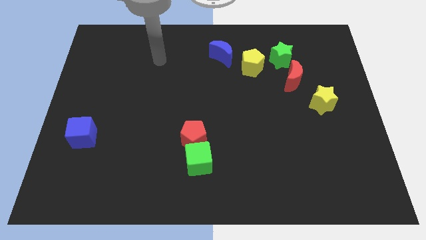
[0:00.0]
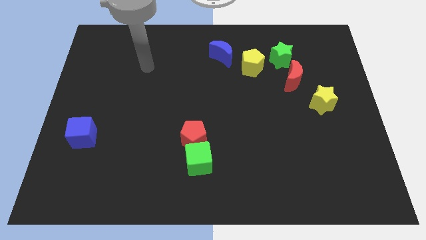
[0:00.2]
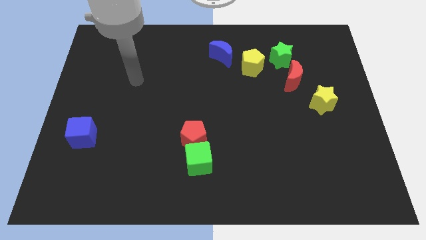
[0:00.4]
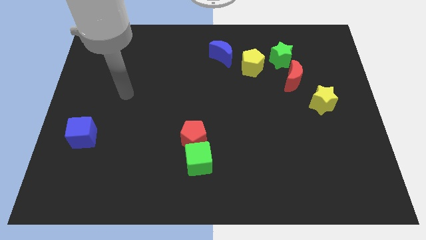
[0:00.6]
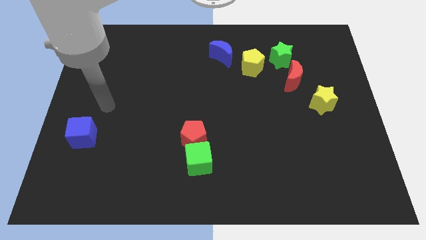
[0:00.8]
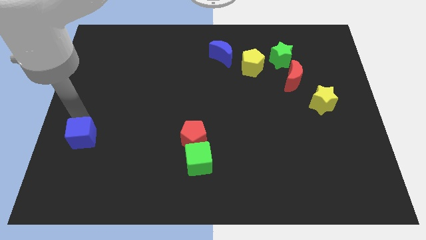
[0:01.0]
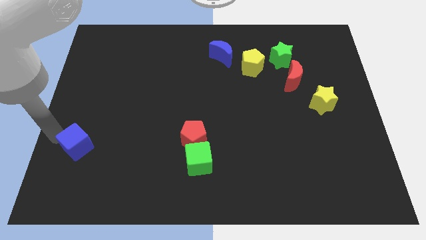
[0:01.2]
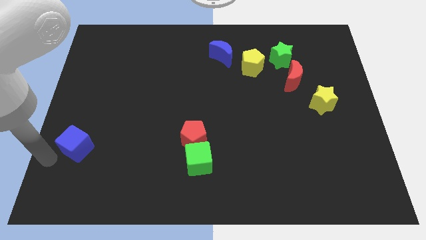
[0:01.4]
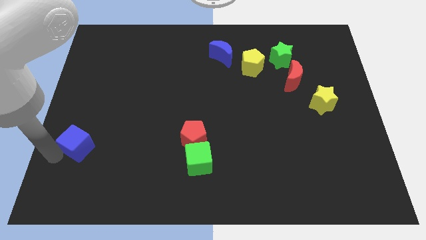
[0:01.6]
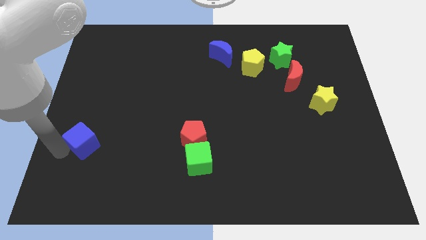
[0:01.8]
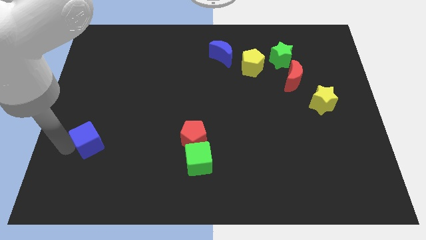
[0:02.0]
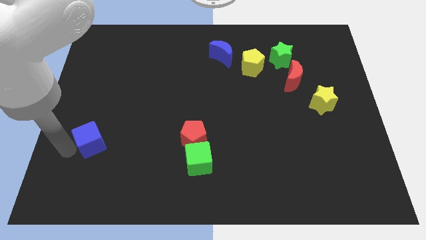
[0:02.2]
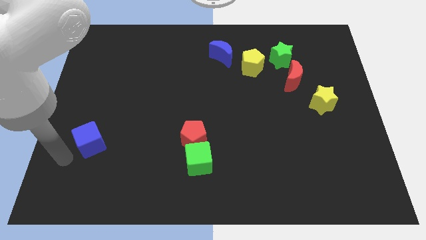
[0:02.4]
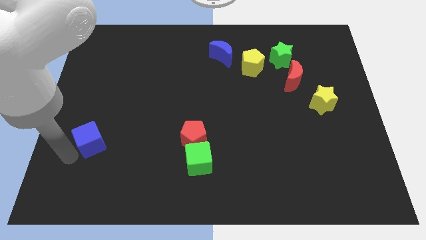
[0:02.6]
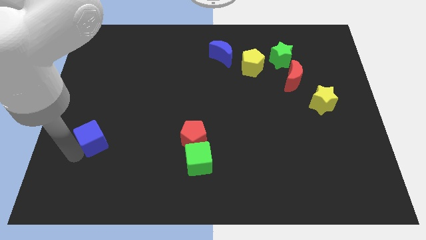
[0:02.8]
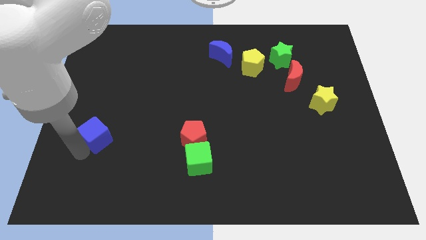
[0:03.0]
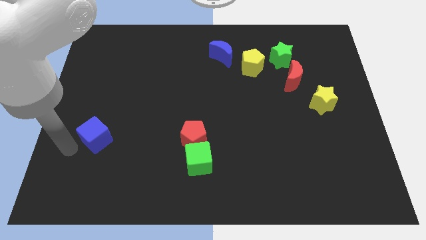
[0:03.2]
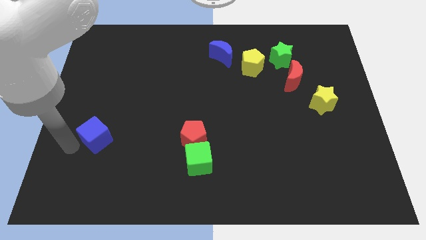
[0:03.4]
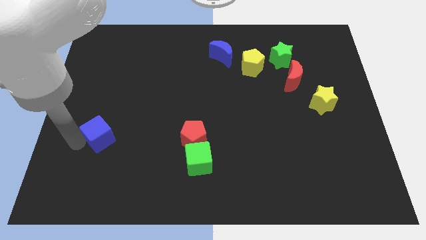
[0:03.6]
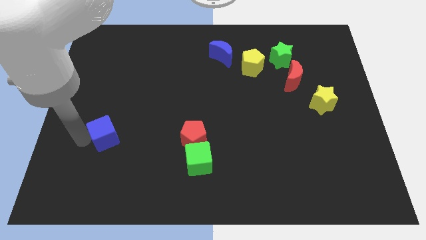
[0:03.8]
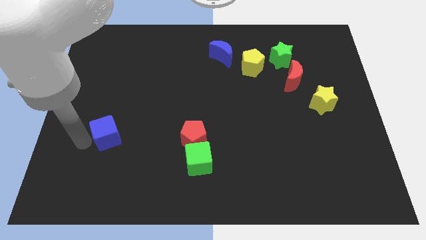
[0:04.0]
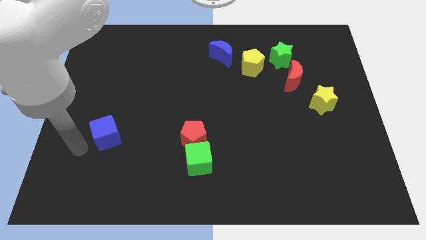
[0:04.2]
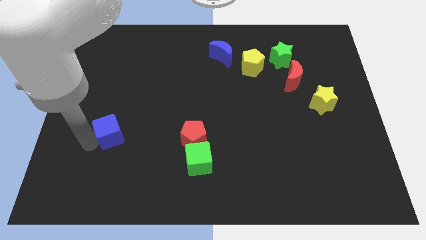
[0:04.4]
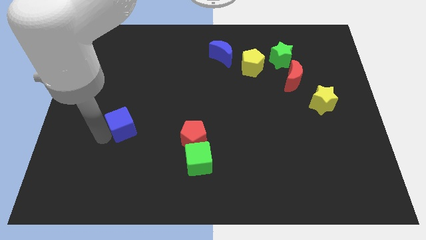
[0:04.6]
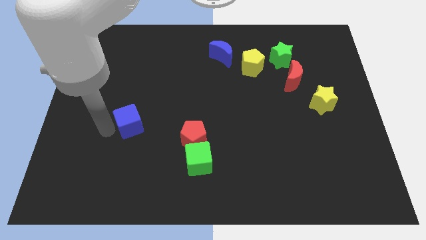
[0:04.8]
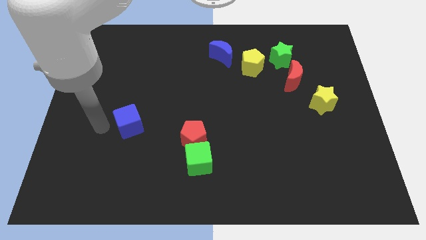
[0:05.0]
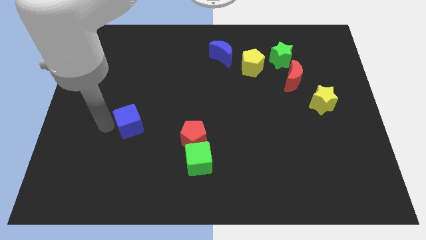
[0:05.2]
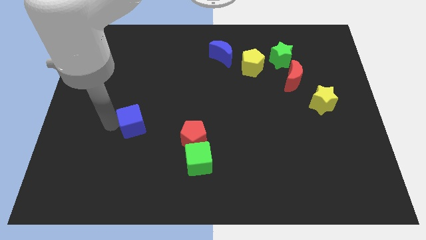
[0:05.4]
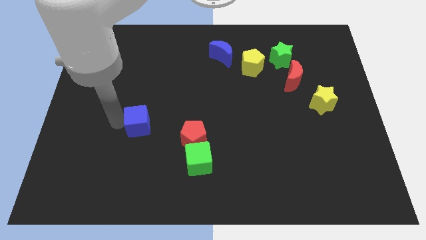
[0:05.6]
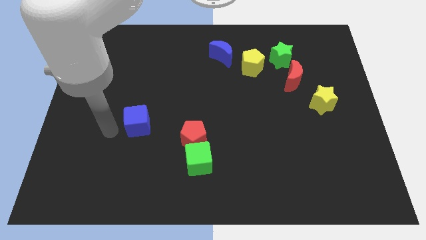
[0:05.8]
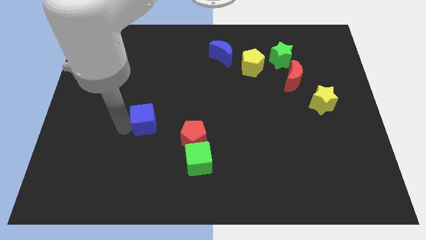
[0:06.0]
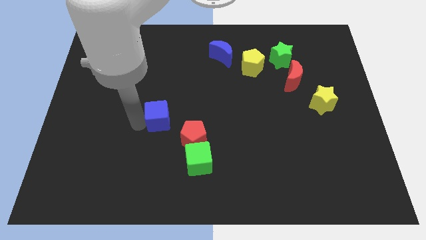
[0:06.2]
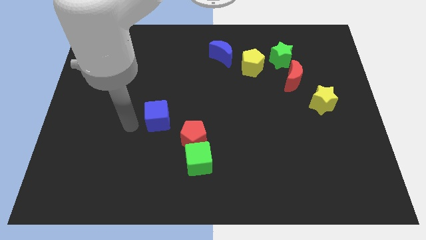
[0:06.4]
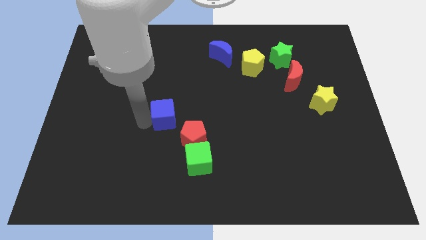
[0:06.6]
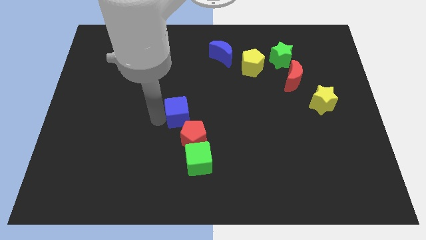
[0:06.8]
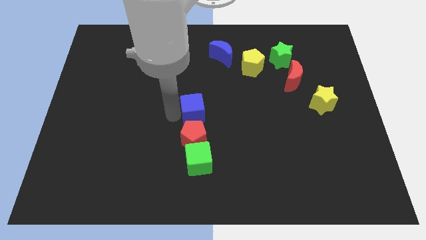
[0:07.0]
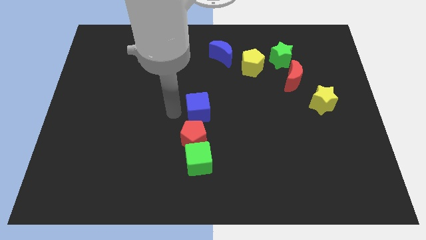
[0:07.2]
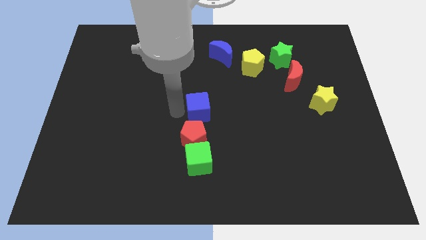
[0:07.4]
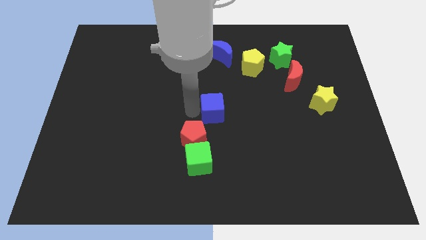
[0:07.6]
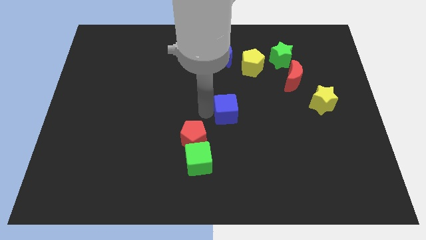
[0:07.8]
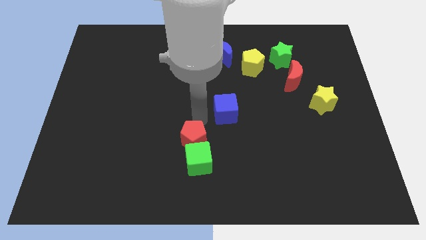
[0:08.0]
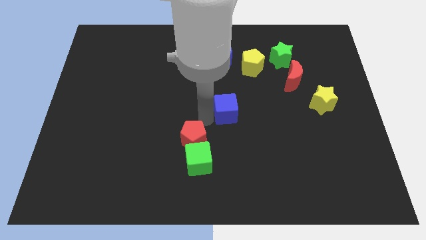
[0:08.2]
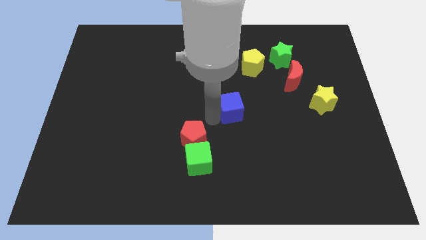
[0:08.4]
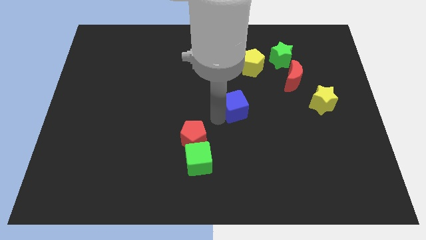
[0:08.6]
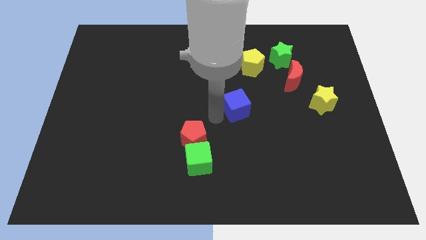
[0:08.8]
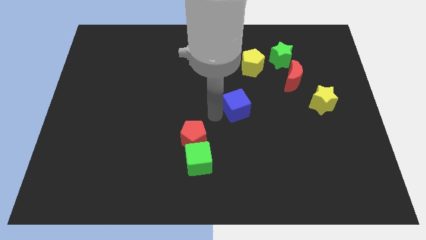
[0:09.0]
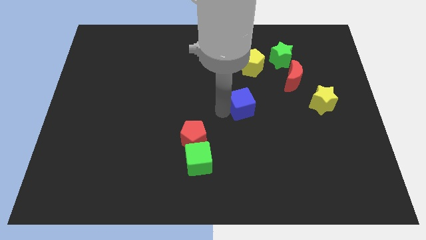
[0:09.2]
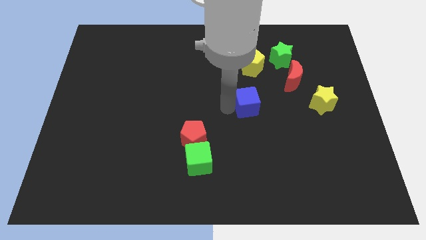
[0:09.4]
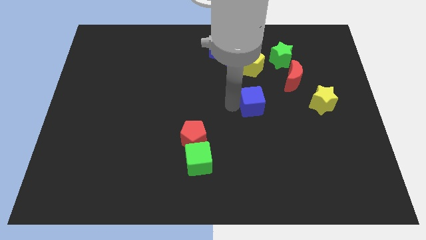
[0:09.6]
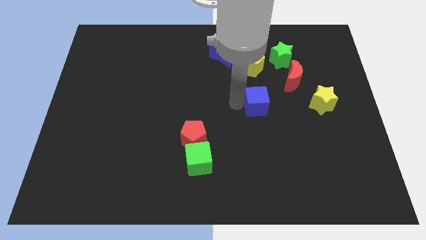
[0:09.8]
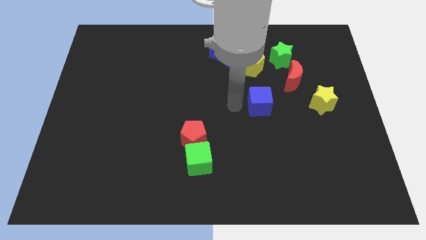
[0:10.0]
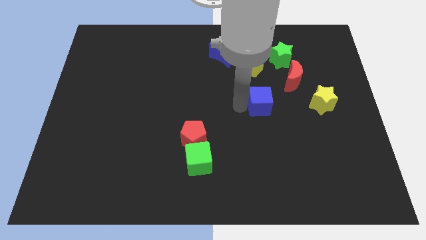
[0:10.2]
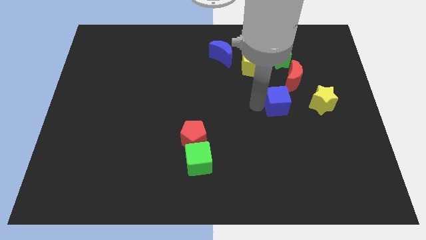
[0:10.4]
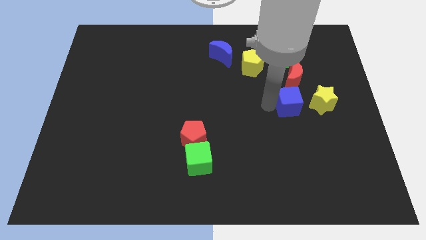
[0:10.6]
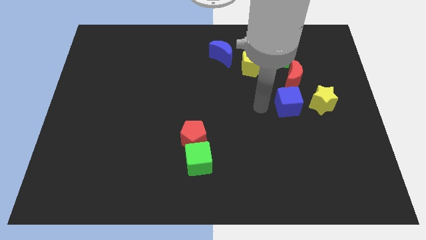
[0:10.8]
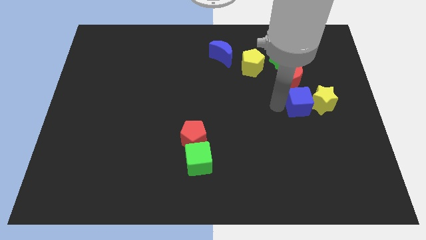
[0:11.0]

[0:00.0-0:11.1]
move the blue cube to the yellow star

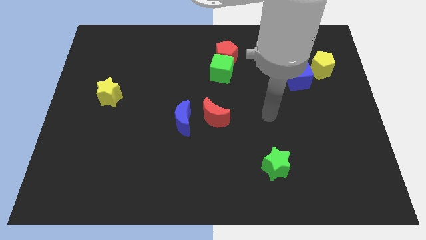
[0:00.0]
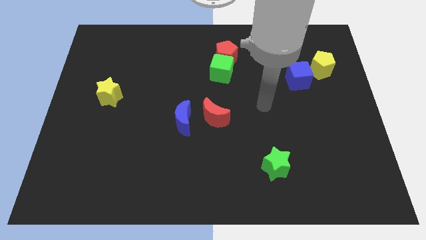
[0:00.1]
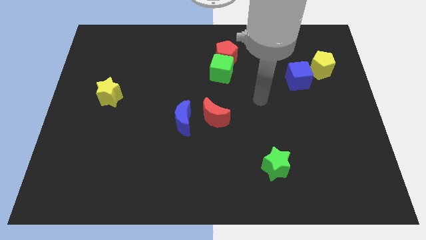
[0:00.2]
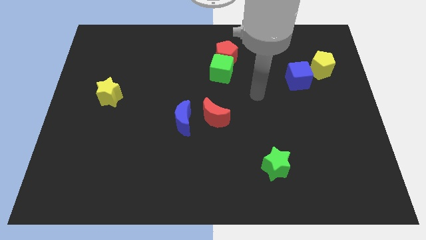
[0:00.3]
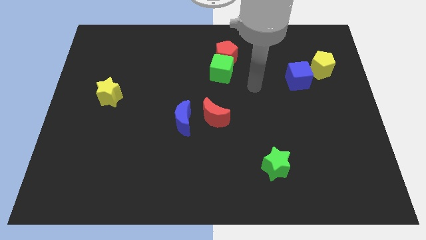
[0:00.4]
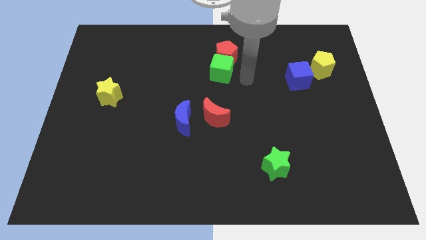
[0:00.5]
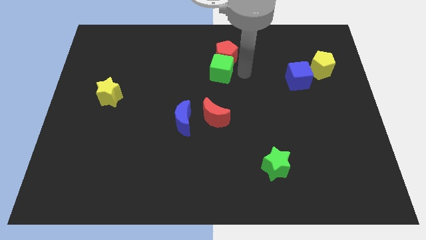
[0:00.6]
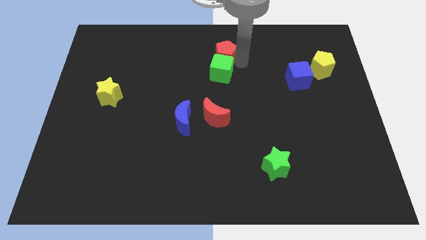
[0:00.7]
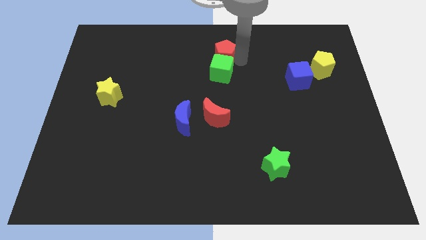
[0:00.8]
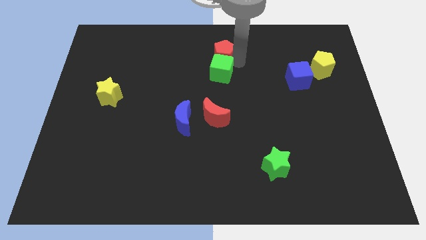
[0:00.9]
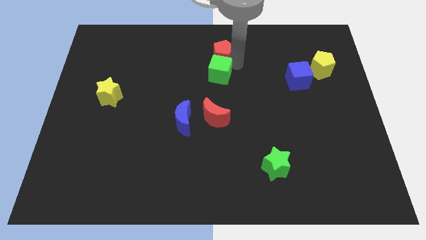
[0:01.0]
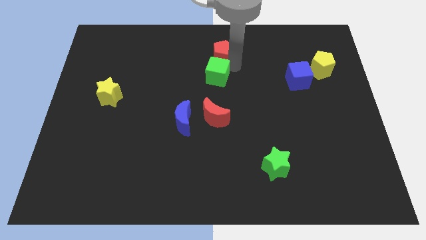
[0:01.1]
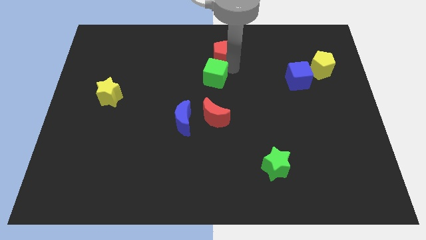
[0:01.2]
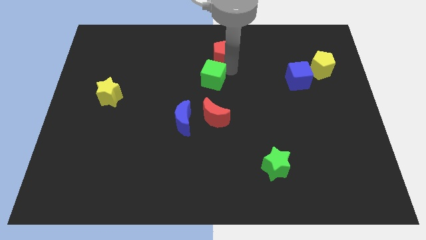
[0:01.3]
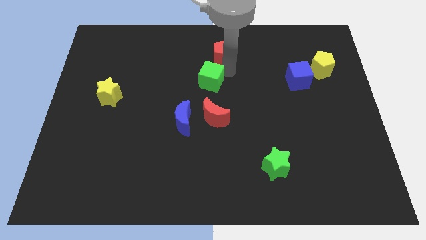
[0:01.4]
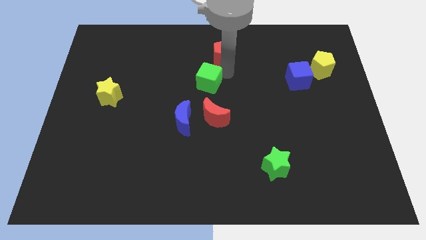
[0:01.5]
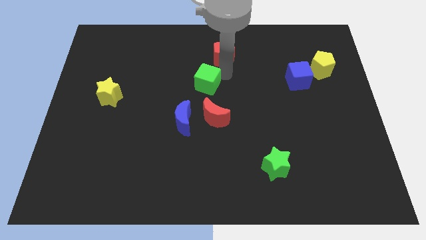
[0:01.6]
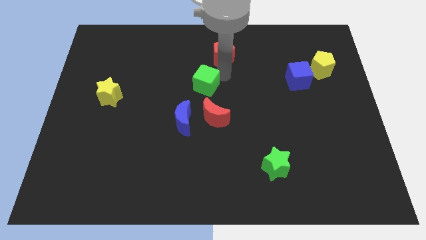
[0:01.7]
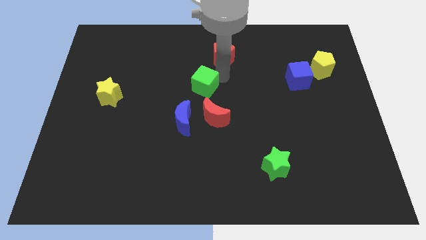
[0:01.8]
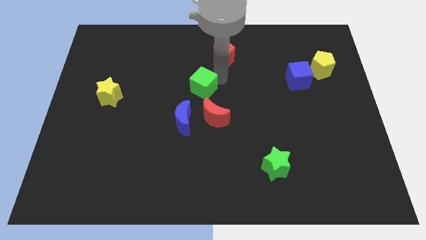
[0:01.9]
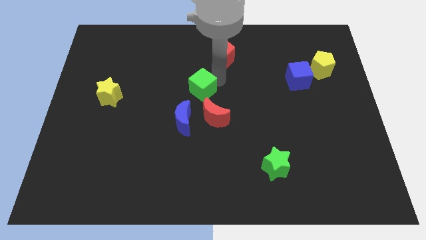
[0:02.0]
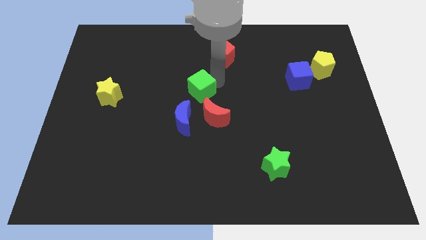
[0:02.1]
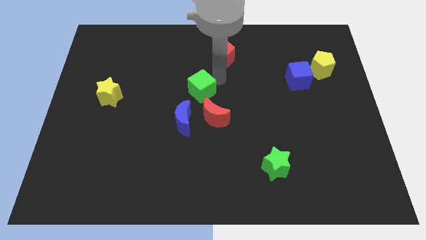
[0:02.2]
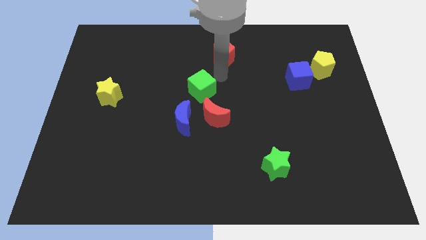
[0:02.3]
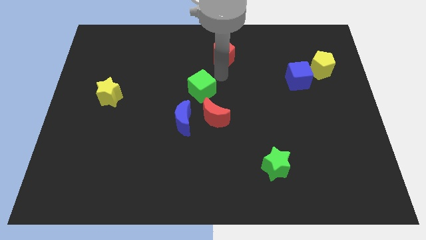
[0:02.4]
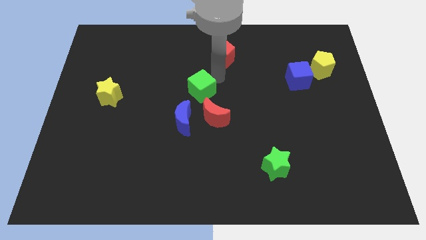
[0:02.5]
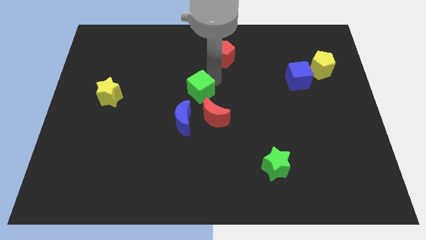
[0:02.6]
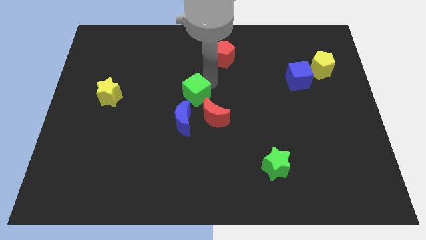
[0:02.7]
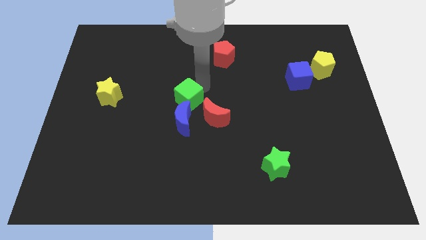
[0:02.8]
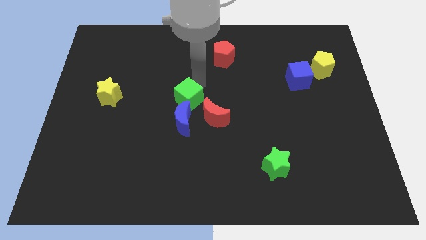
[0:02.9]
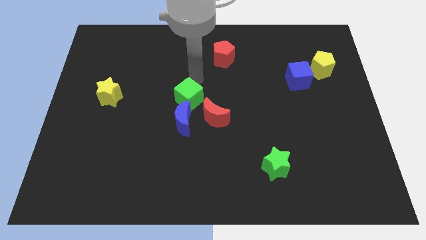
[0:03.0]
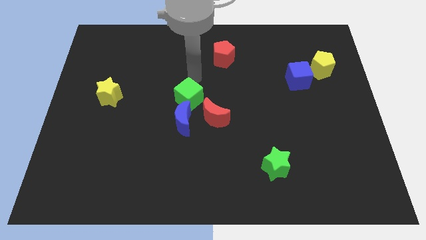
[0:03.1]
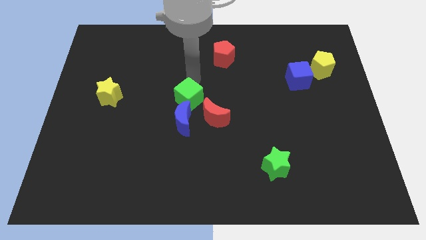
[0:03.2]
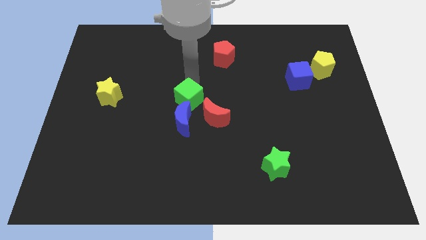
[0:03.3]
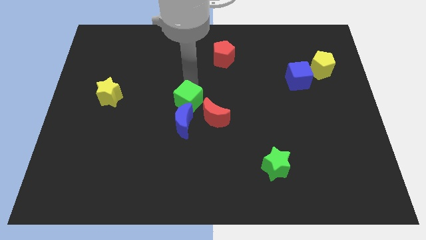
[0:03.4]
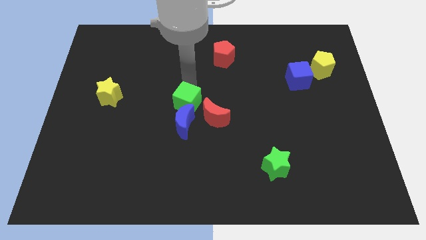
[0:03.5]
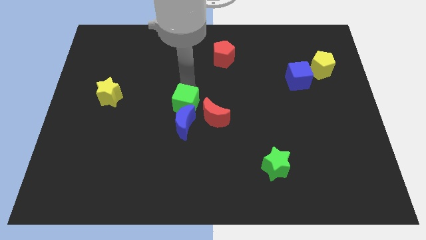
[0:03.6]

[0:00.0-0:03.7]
slide the green cube towards the blue moon
